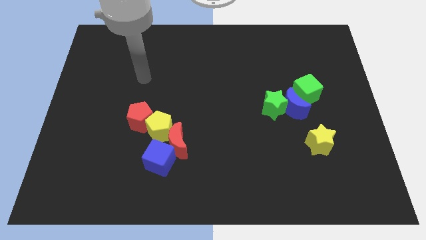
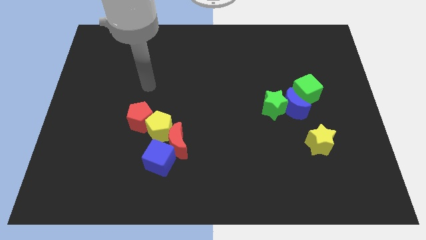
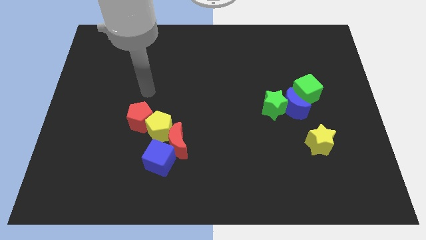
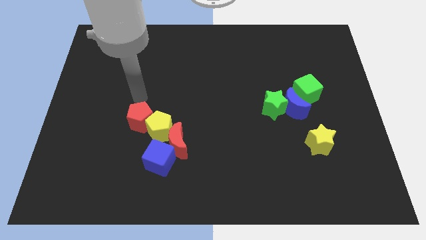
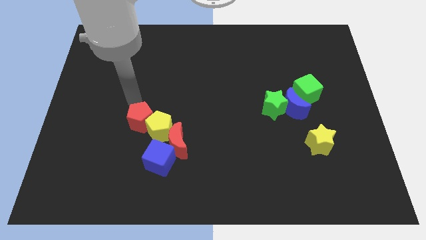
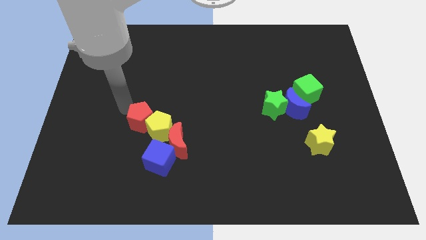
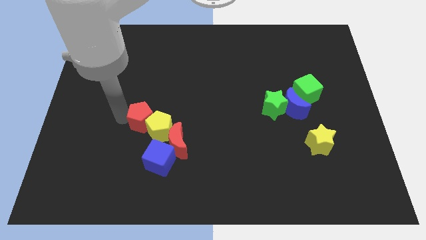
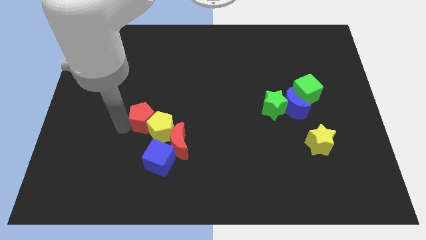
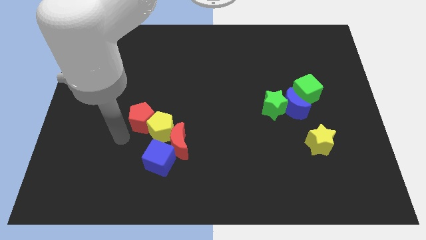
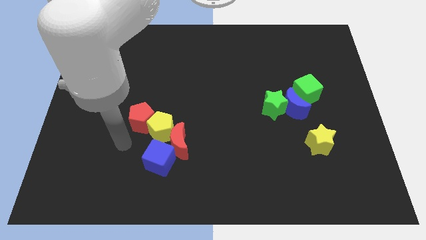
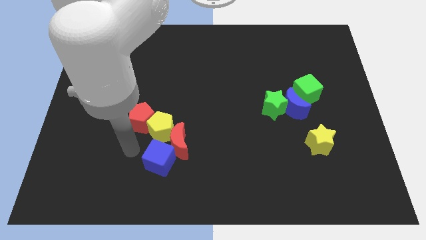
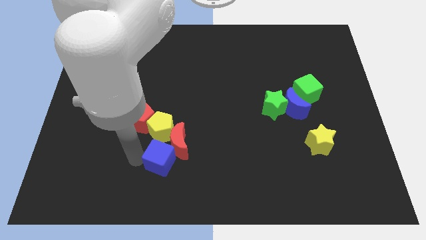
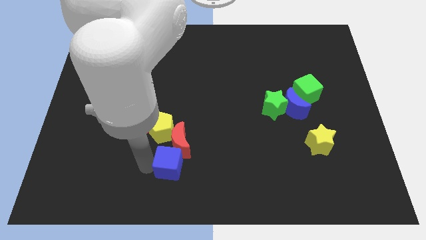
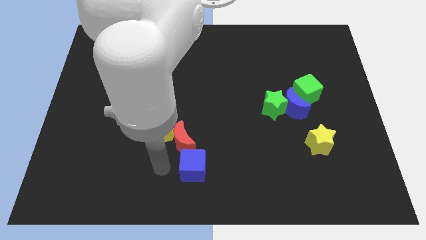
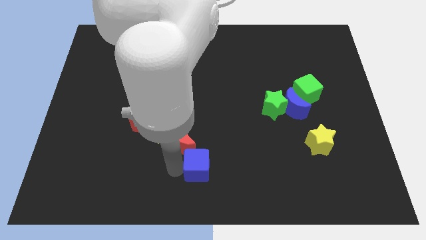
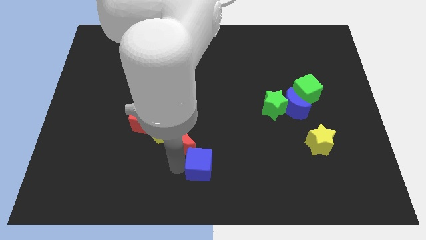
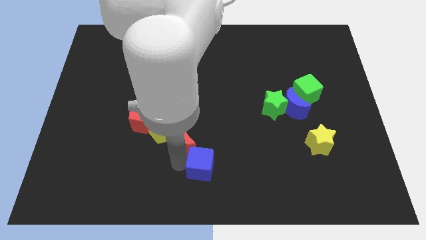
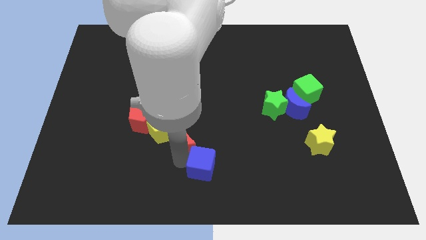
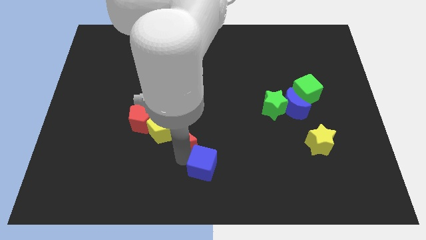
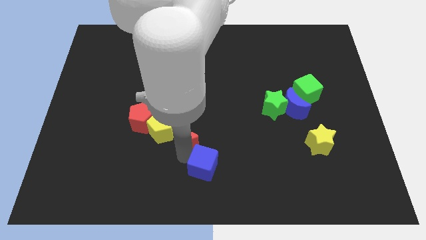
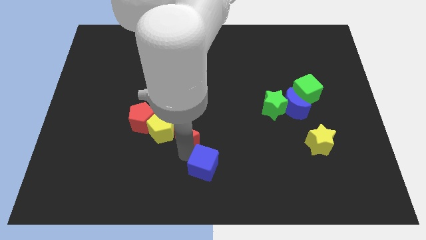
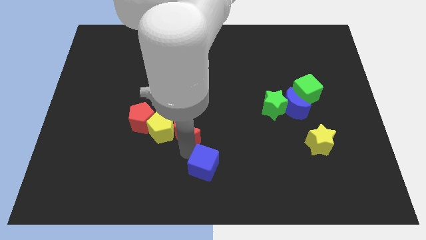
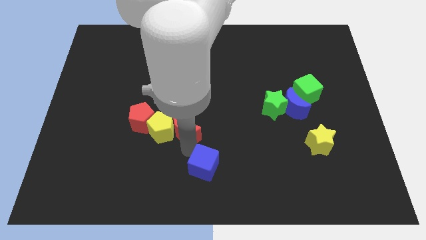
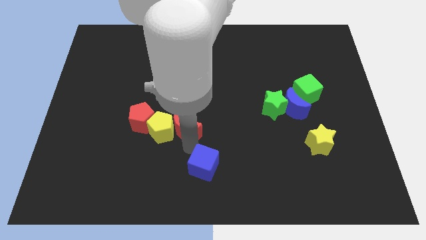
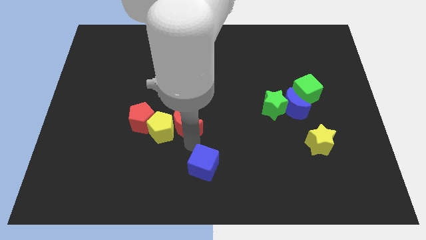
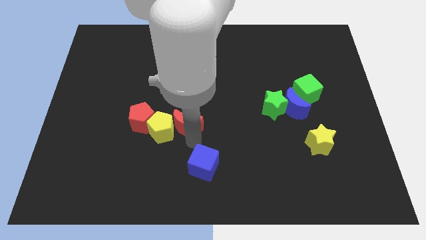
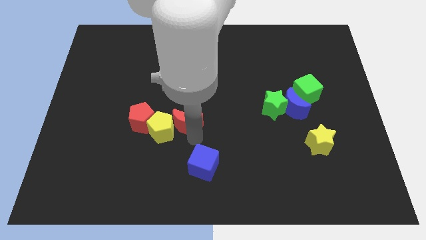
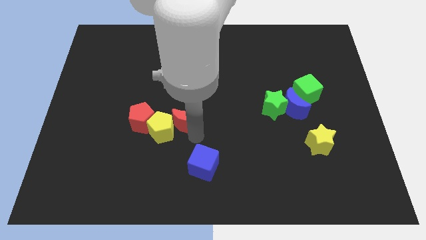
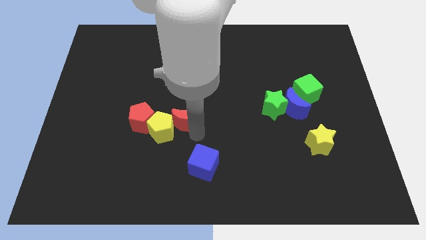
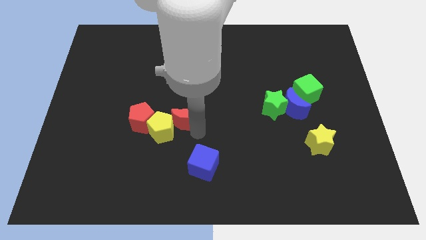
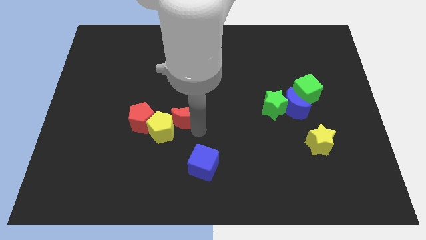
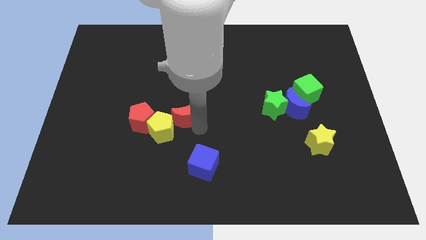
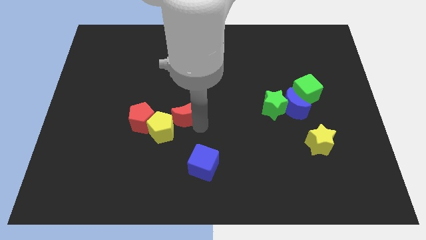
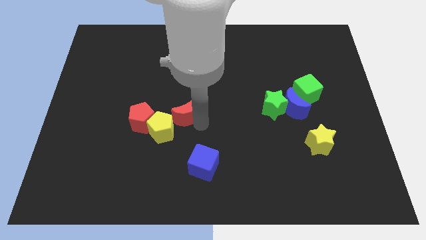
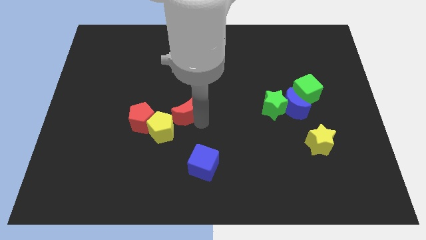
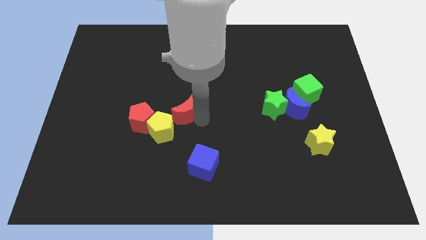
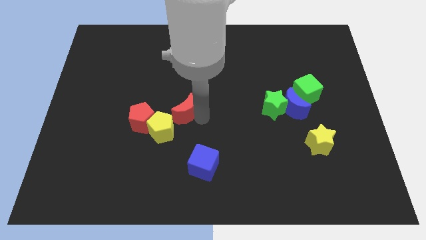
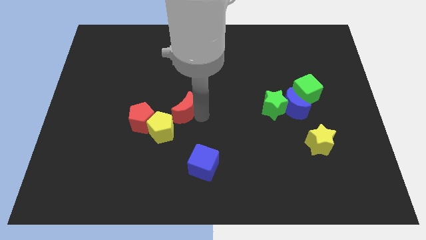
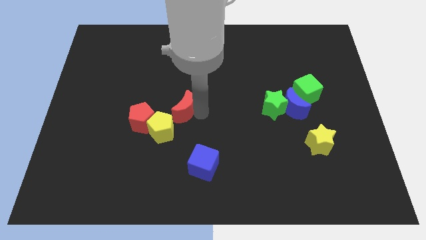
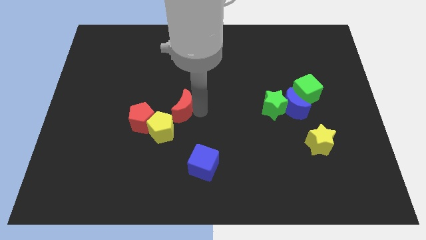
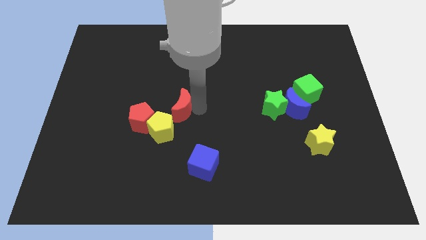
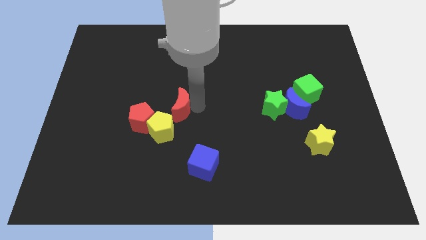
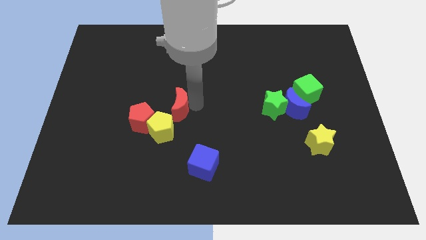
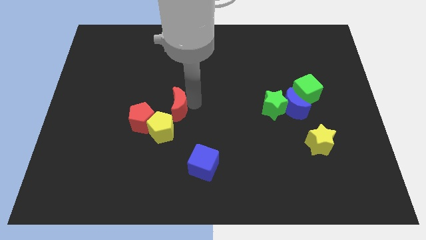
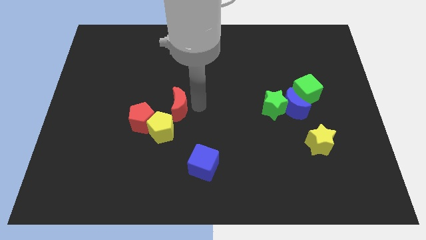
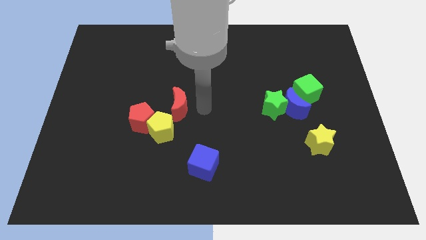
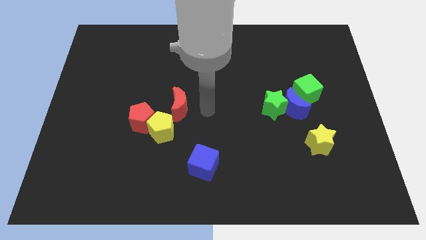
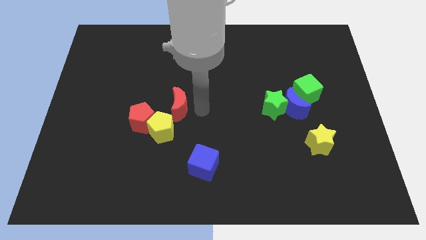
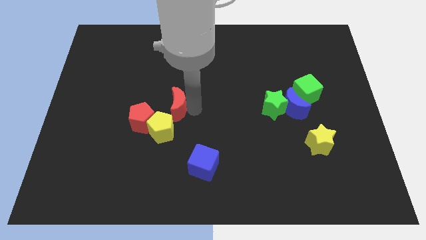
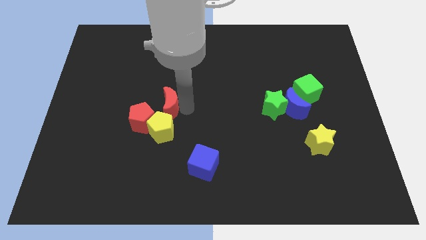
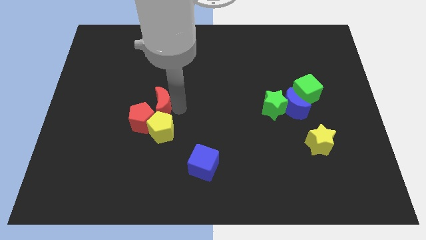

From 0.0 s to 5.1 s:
push the red moon to the top left side of the yellow pentagon

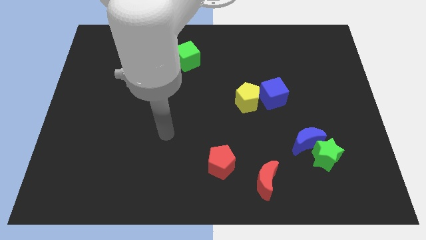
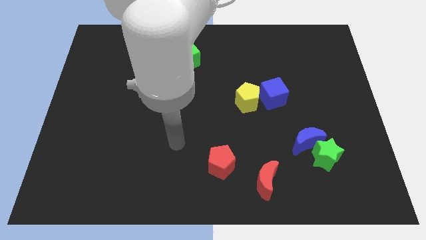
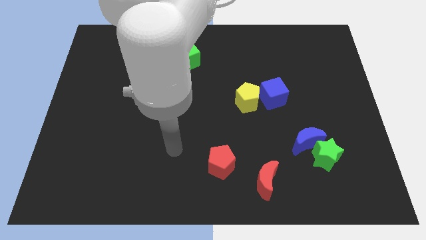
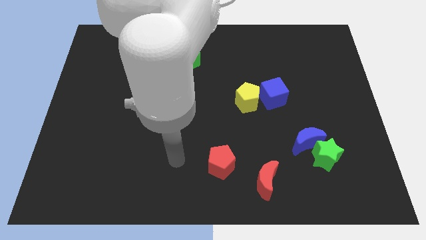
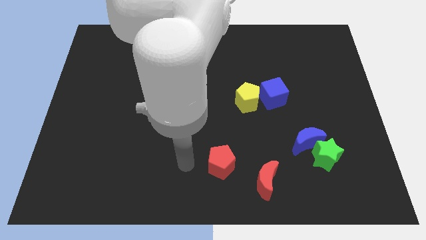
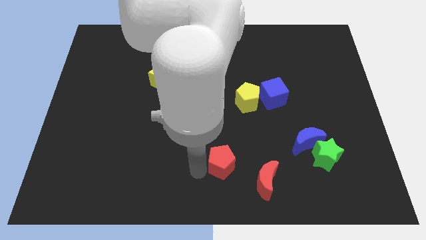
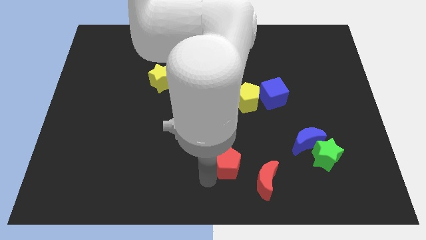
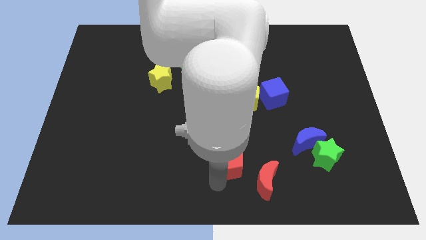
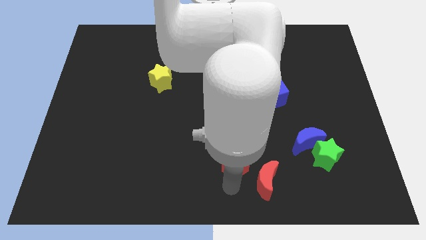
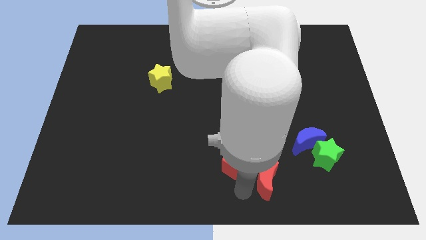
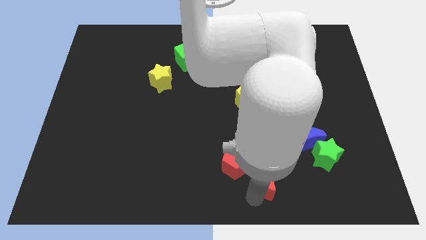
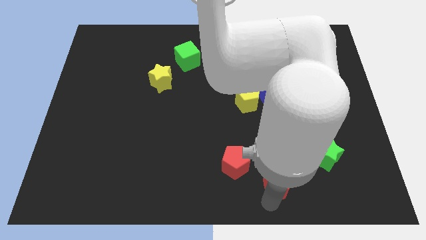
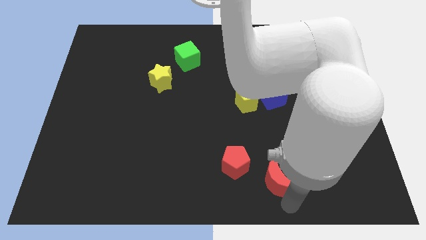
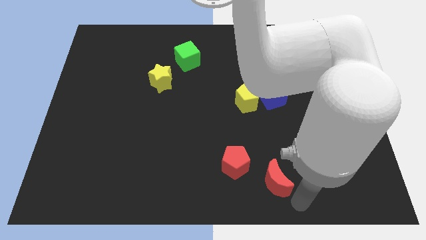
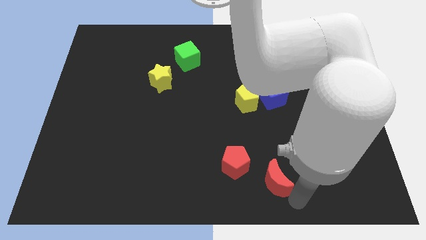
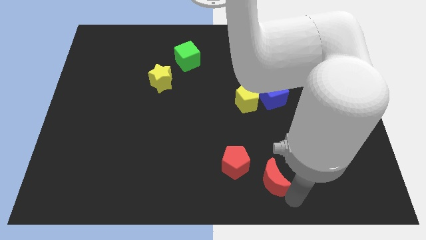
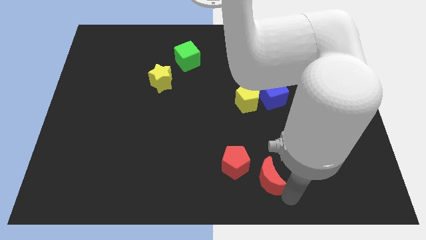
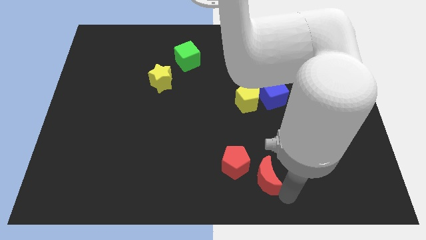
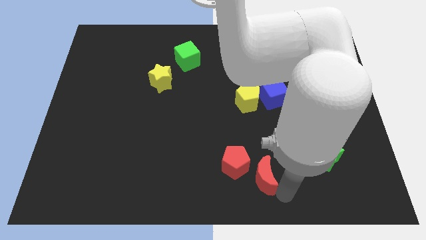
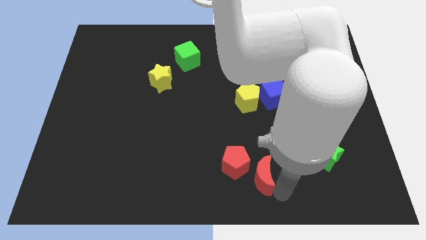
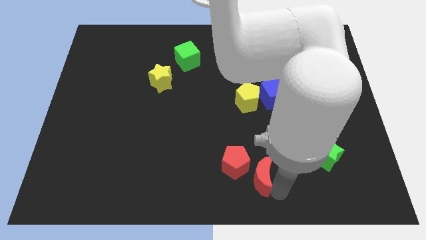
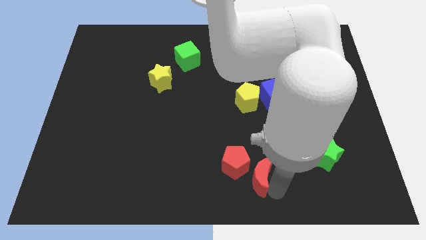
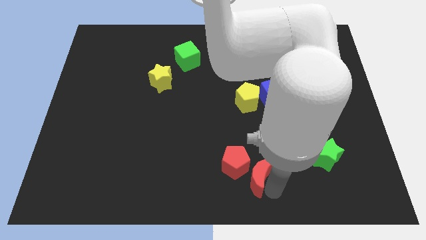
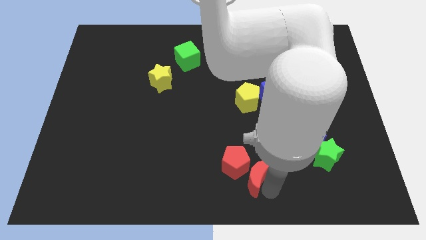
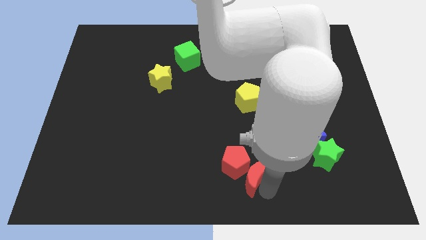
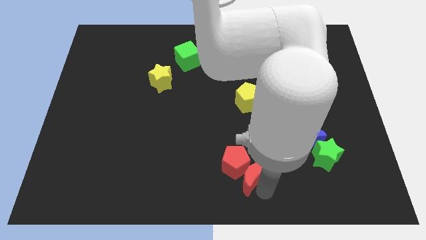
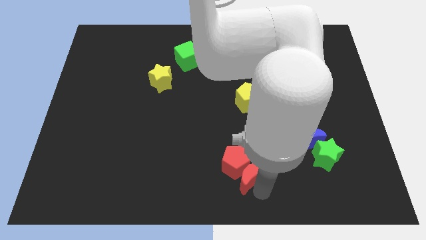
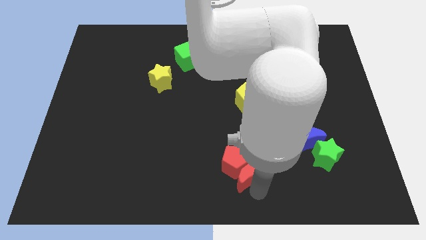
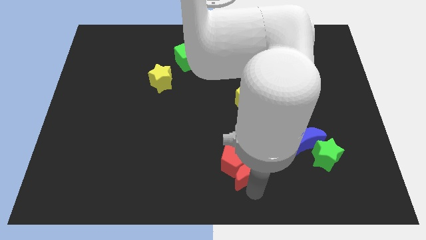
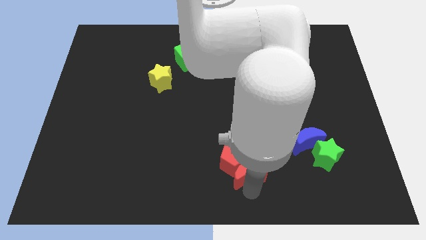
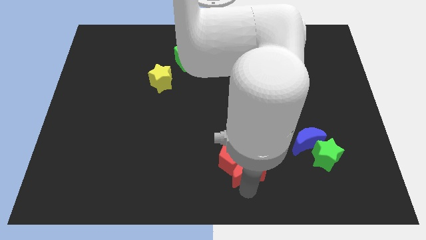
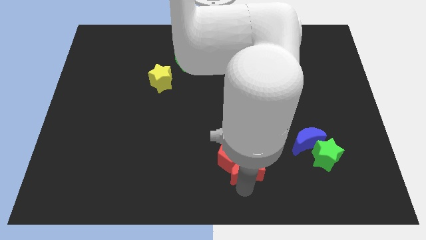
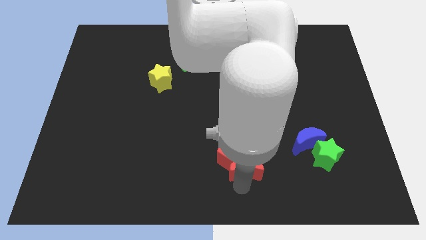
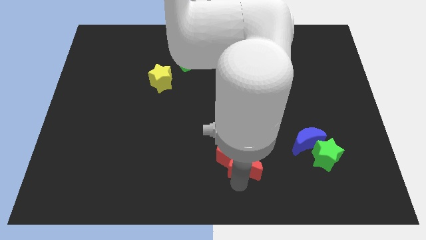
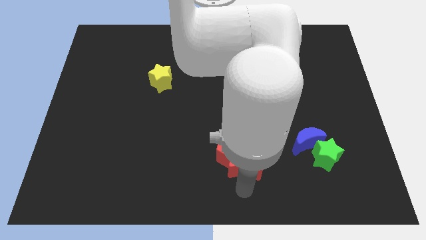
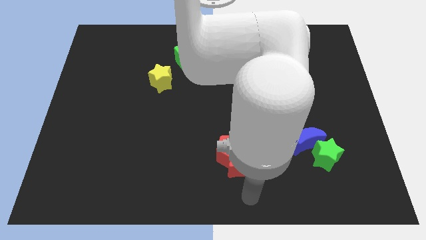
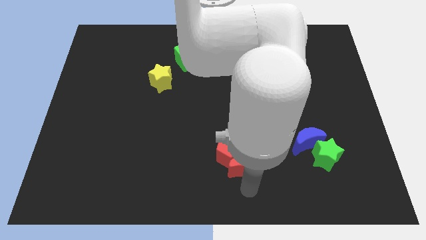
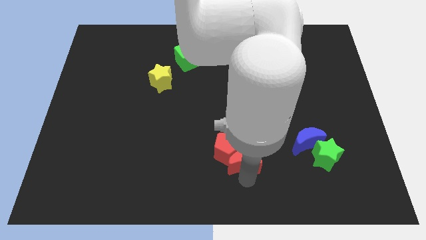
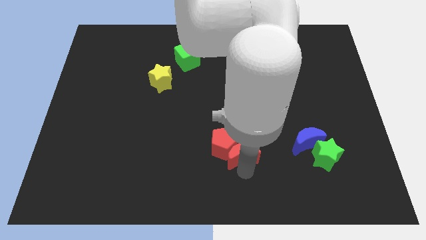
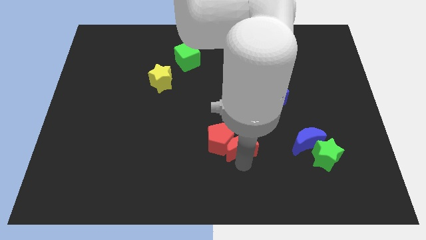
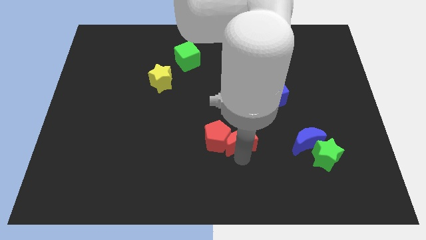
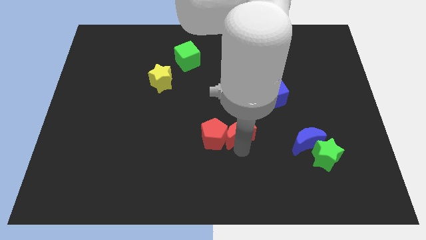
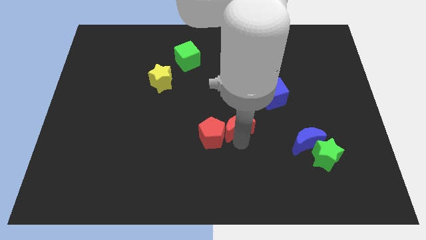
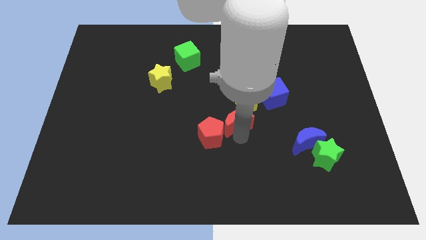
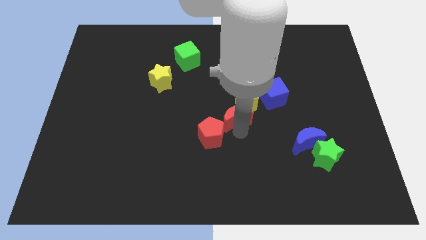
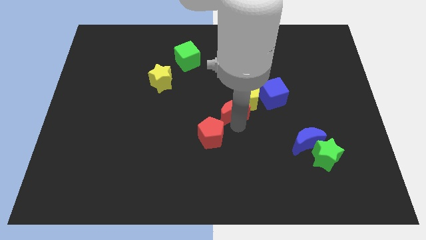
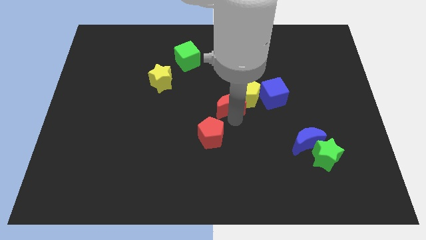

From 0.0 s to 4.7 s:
put the red moon to the left side of the blue cube
